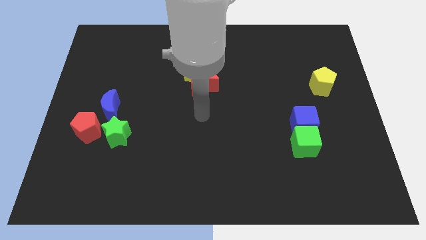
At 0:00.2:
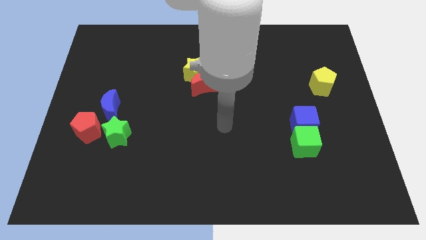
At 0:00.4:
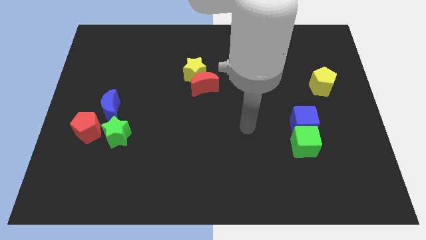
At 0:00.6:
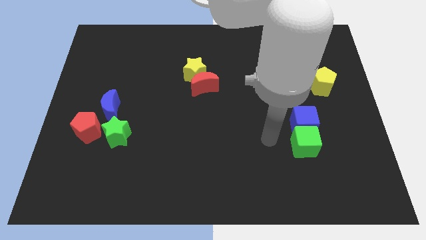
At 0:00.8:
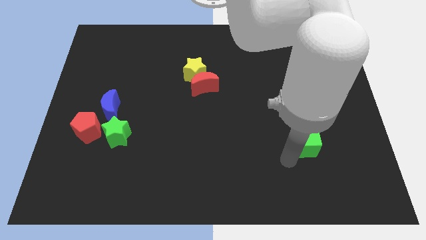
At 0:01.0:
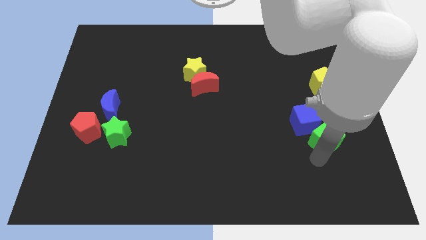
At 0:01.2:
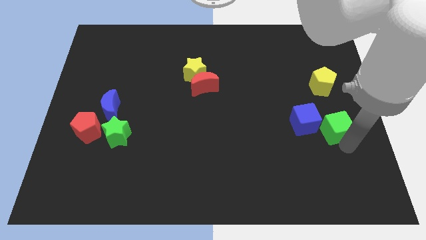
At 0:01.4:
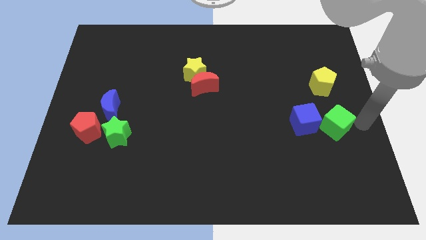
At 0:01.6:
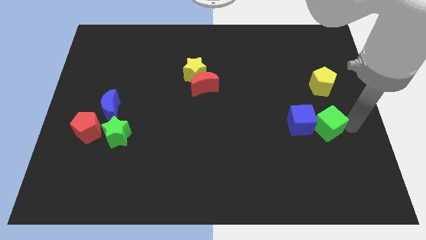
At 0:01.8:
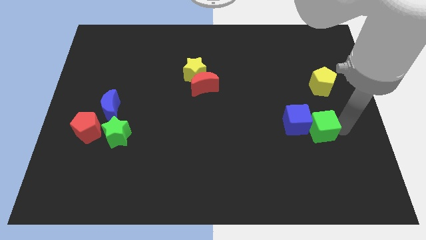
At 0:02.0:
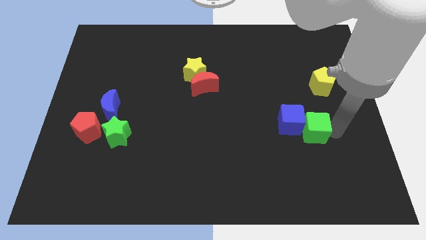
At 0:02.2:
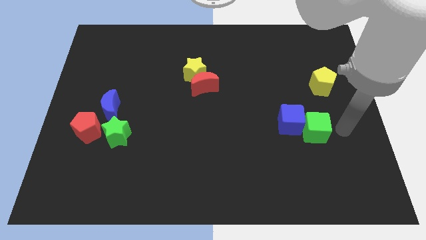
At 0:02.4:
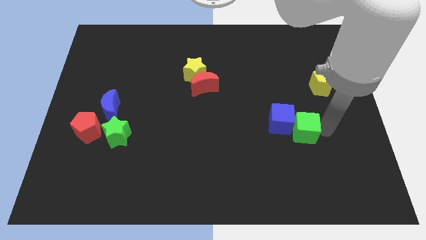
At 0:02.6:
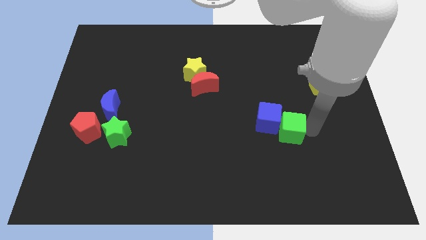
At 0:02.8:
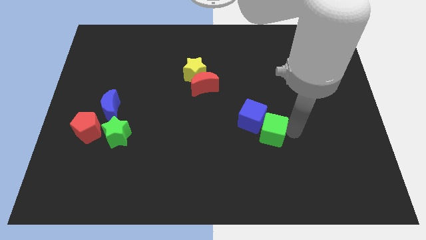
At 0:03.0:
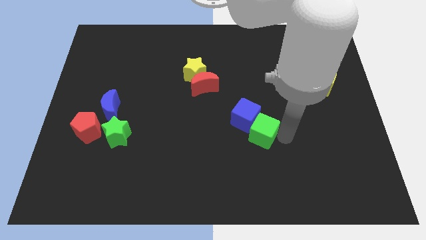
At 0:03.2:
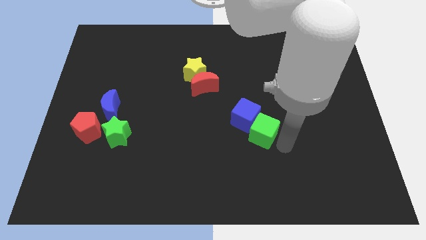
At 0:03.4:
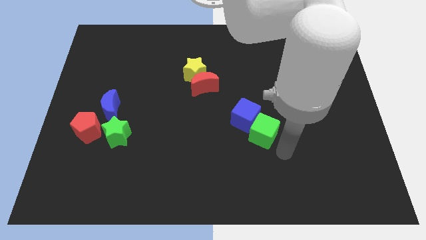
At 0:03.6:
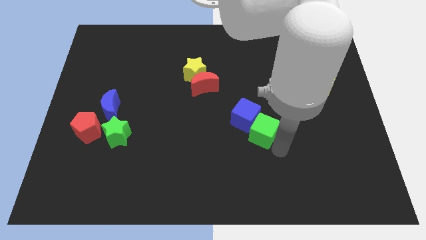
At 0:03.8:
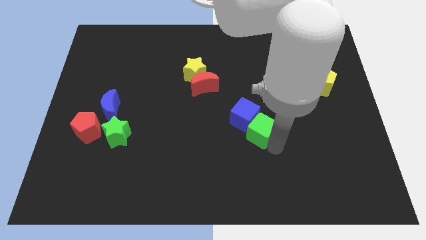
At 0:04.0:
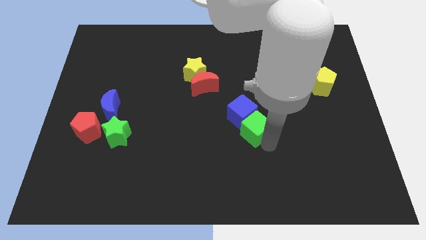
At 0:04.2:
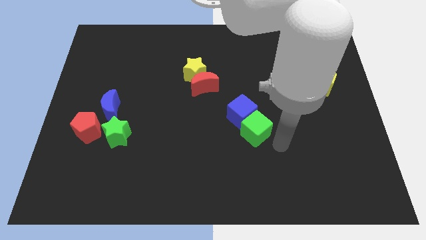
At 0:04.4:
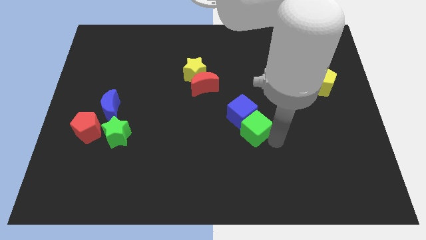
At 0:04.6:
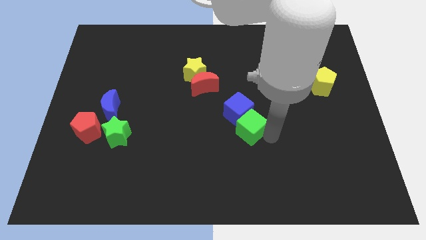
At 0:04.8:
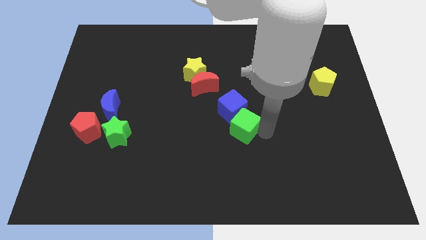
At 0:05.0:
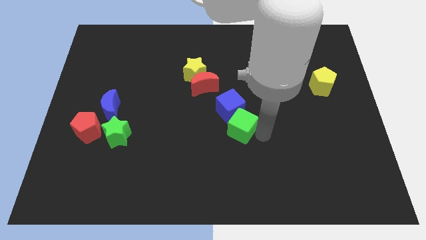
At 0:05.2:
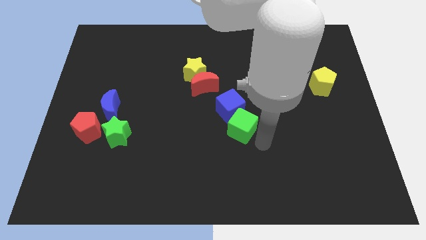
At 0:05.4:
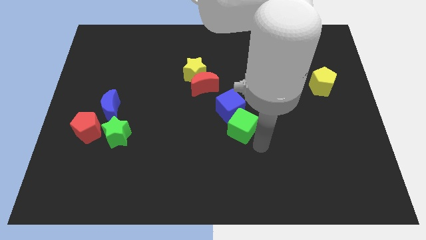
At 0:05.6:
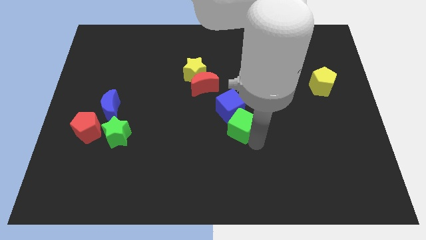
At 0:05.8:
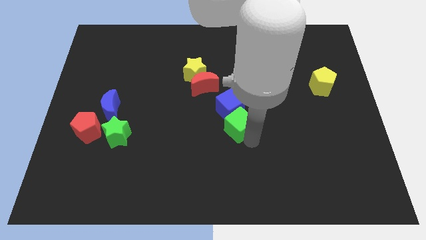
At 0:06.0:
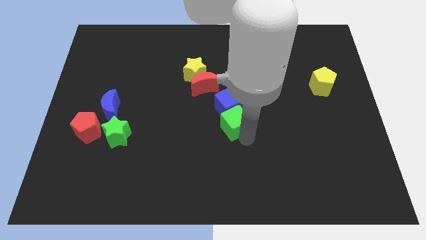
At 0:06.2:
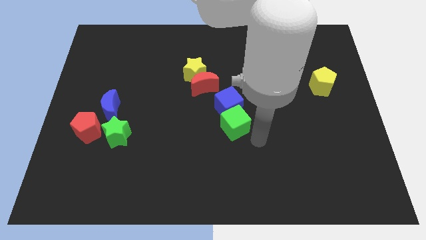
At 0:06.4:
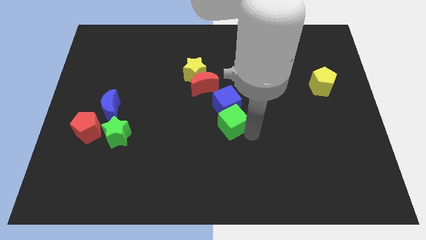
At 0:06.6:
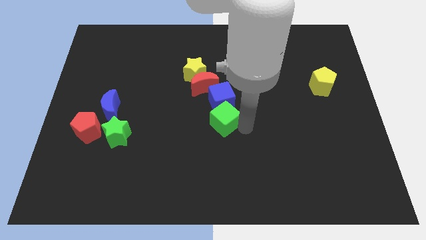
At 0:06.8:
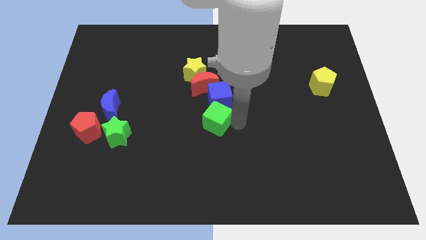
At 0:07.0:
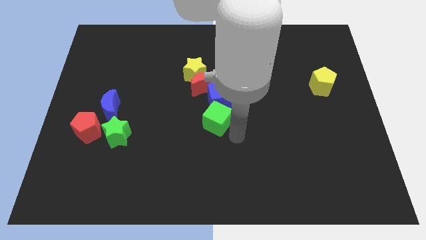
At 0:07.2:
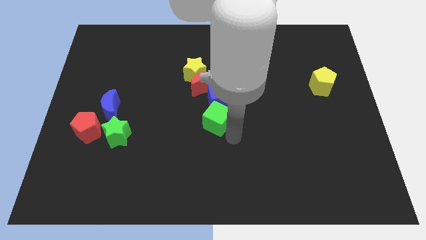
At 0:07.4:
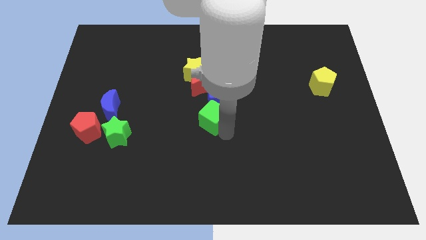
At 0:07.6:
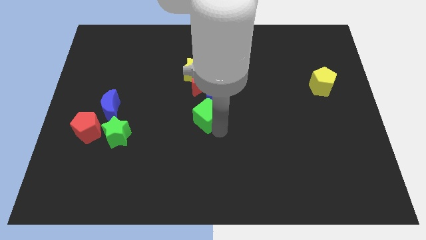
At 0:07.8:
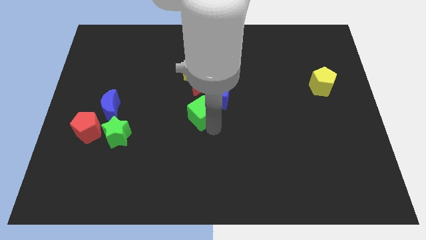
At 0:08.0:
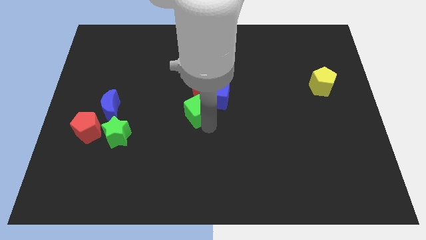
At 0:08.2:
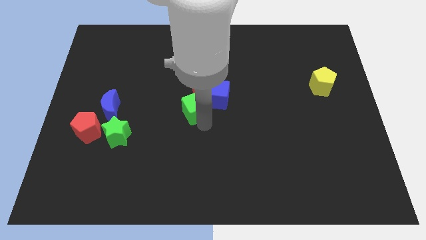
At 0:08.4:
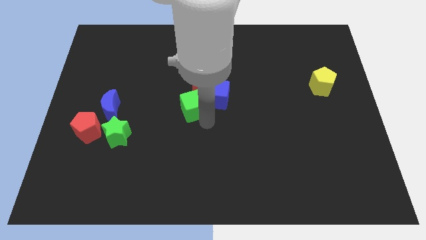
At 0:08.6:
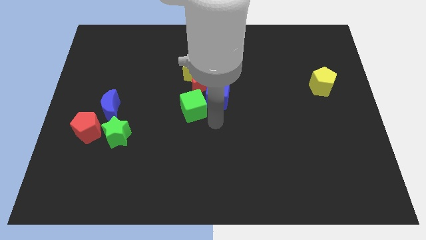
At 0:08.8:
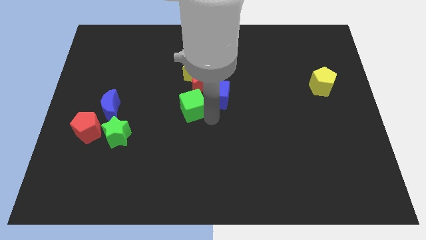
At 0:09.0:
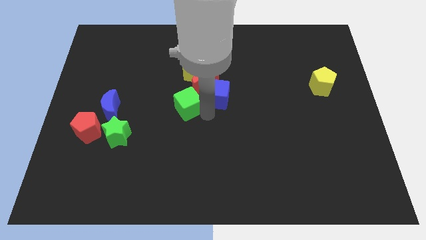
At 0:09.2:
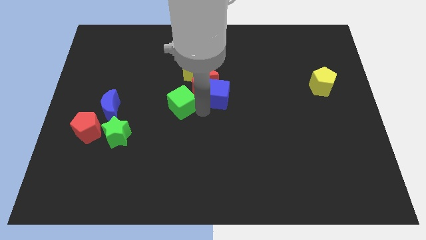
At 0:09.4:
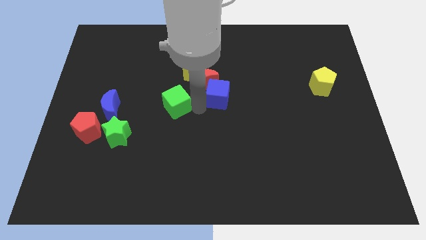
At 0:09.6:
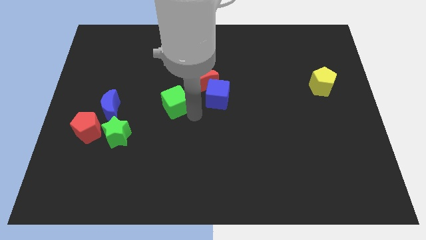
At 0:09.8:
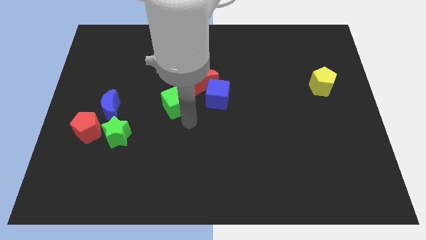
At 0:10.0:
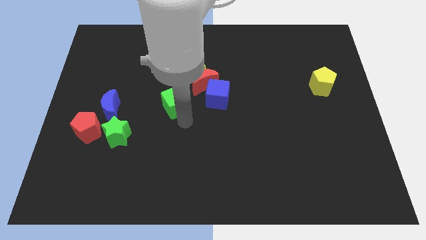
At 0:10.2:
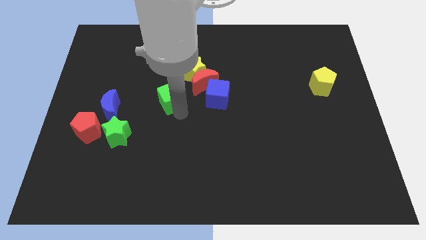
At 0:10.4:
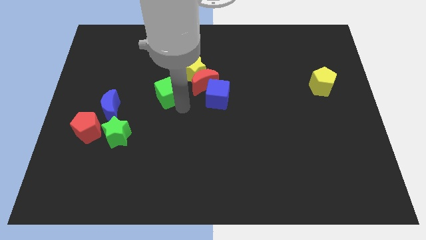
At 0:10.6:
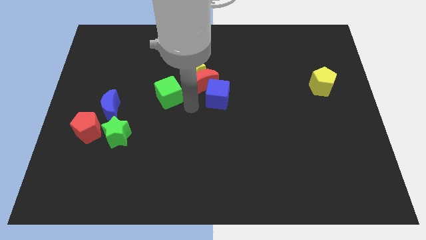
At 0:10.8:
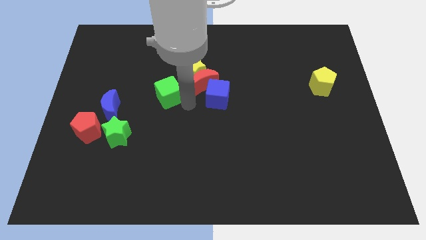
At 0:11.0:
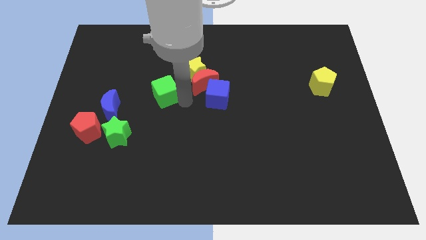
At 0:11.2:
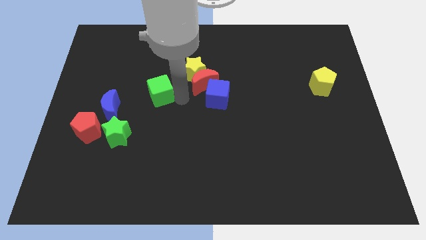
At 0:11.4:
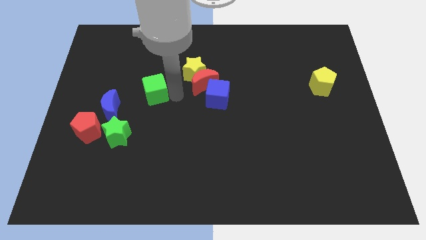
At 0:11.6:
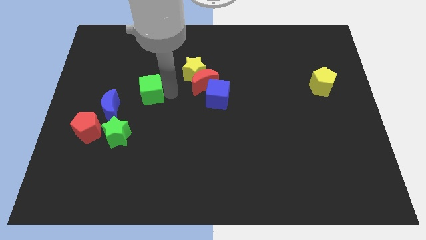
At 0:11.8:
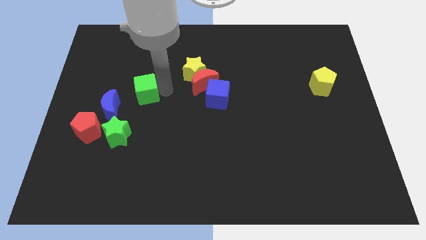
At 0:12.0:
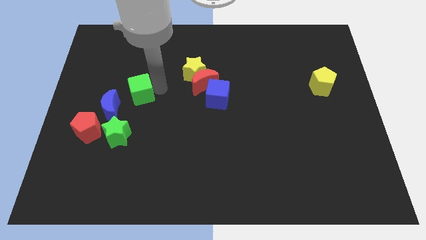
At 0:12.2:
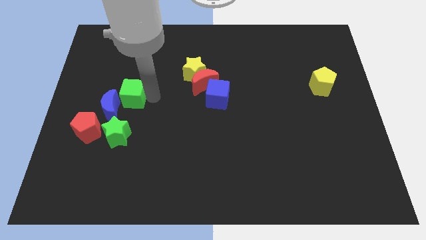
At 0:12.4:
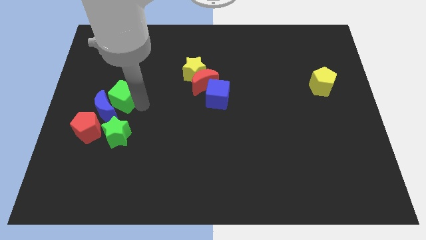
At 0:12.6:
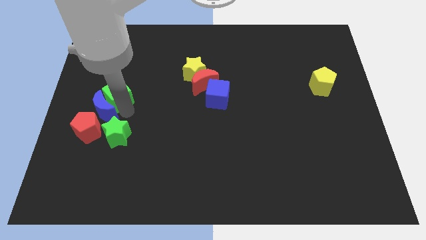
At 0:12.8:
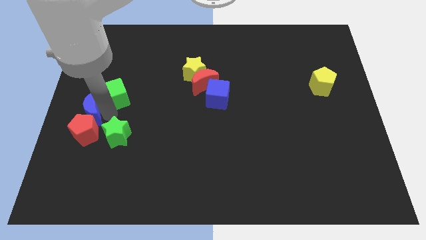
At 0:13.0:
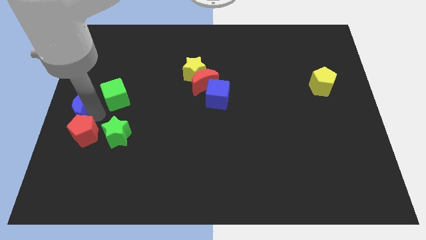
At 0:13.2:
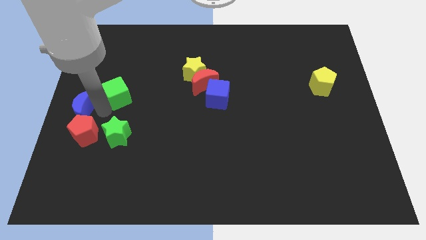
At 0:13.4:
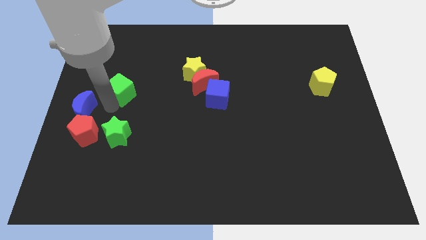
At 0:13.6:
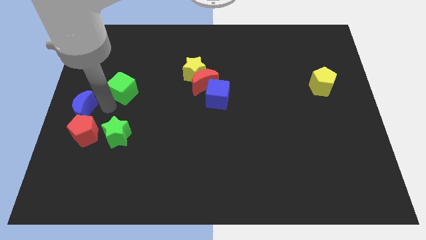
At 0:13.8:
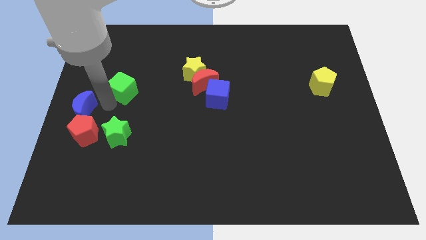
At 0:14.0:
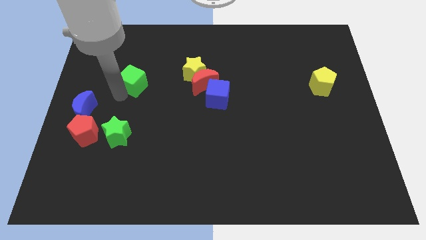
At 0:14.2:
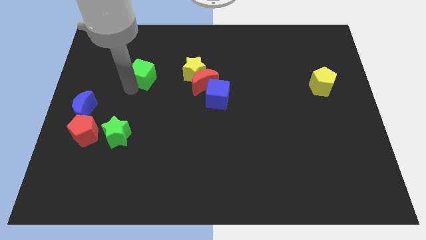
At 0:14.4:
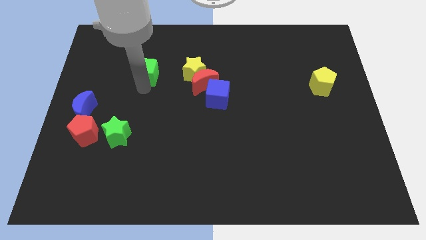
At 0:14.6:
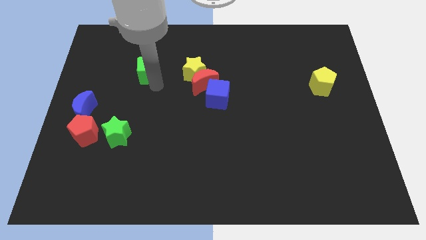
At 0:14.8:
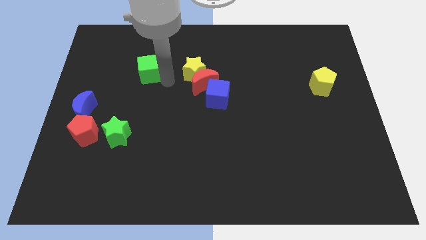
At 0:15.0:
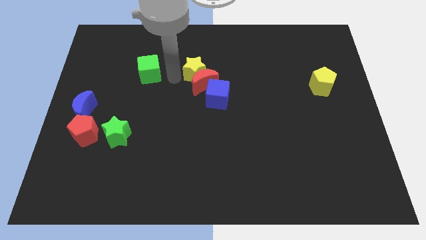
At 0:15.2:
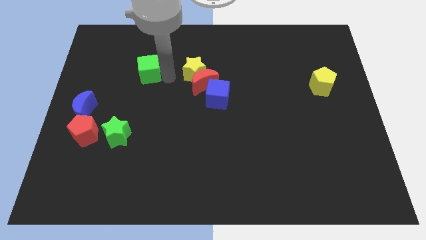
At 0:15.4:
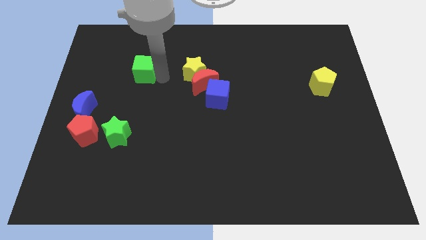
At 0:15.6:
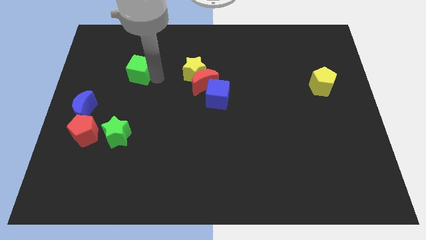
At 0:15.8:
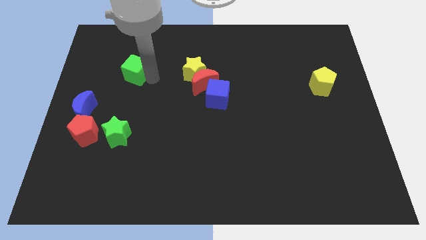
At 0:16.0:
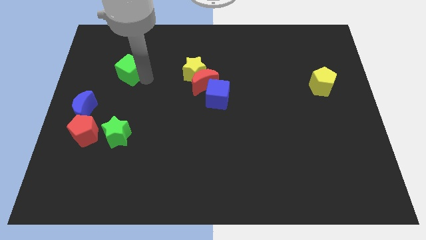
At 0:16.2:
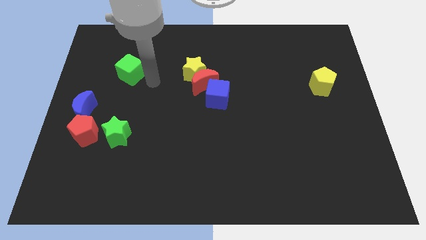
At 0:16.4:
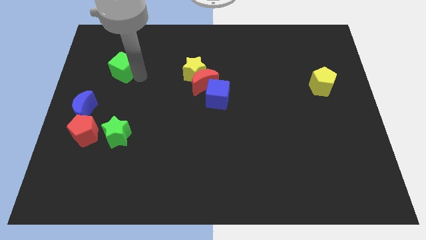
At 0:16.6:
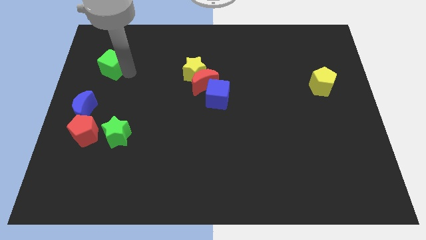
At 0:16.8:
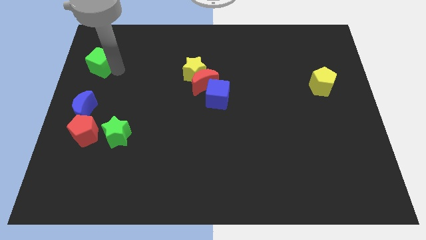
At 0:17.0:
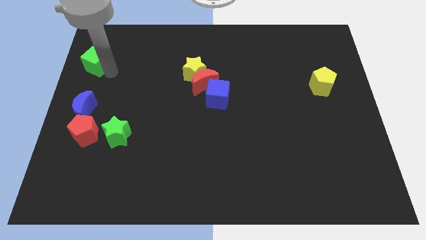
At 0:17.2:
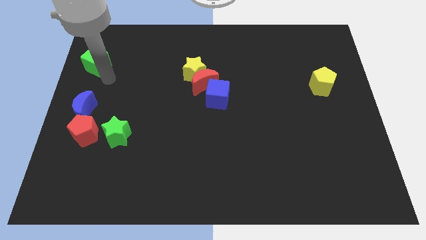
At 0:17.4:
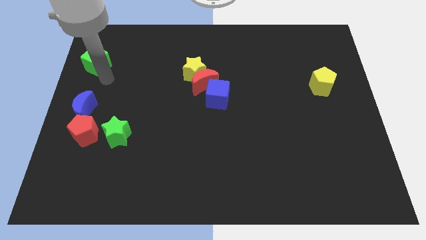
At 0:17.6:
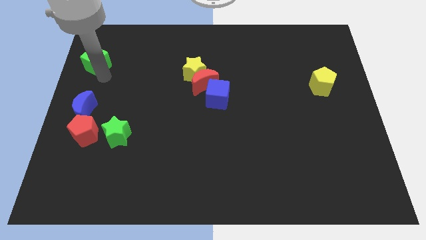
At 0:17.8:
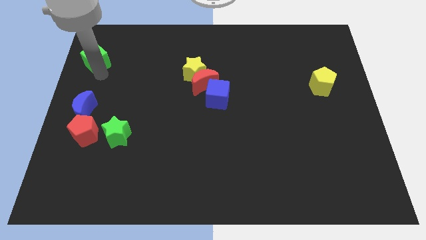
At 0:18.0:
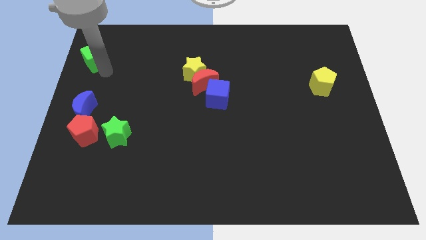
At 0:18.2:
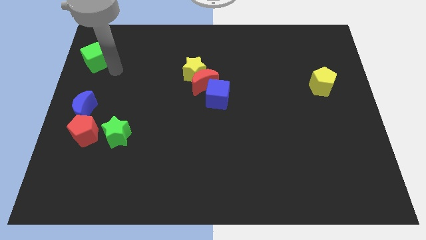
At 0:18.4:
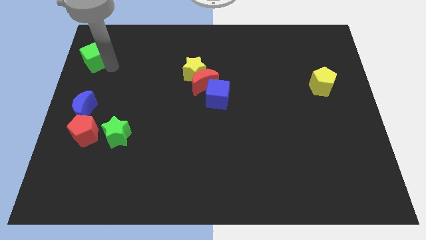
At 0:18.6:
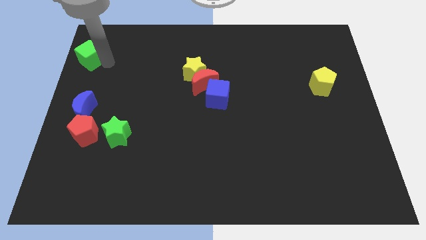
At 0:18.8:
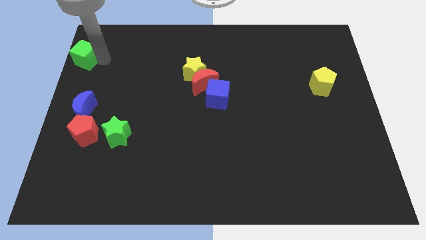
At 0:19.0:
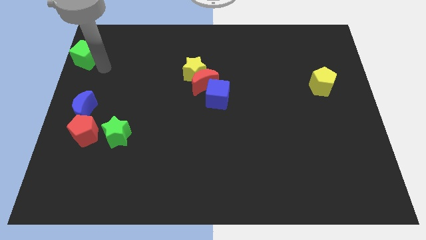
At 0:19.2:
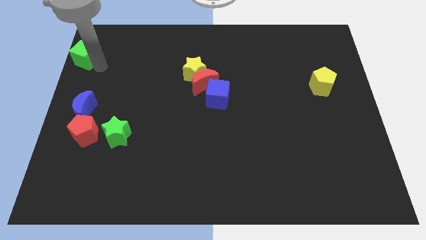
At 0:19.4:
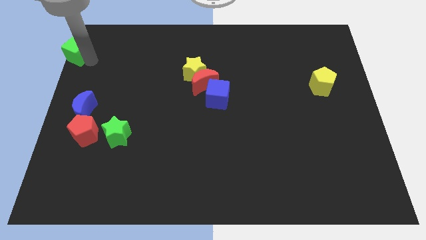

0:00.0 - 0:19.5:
slide the green cube to the top left corner
